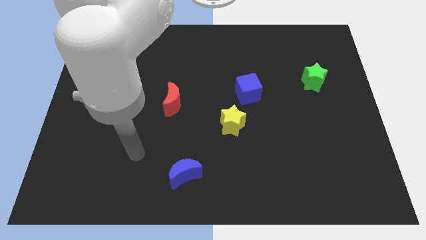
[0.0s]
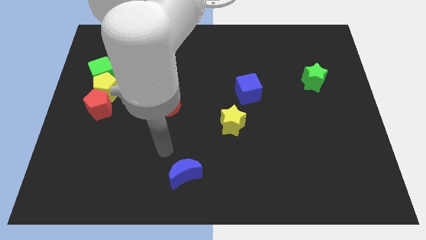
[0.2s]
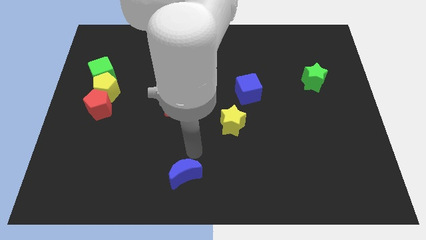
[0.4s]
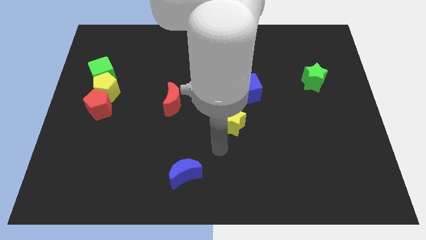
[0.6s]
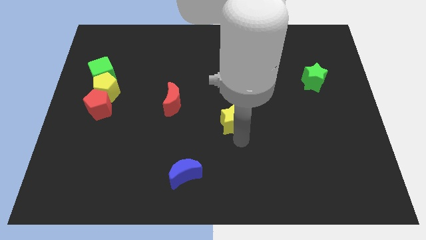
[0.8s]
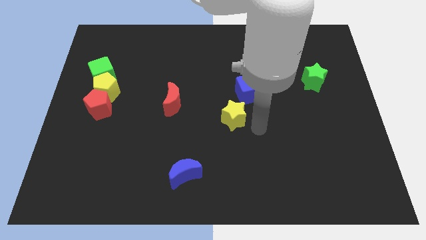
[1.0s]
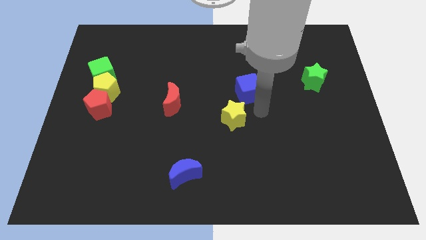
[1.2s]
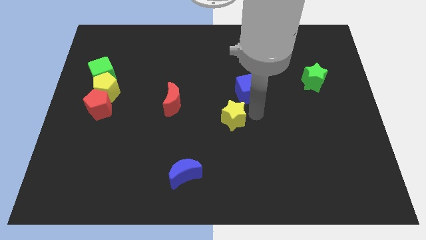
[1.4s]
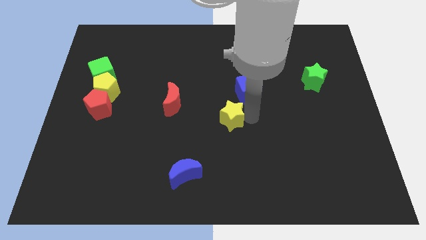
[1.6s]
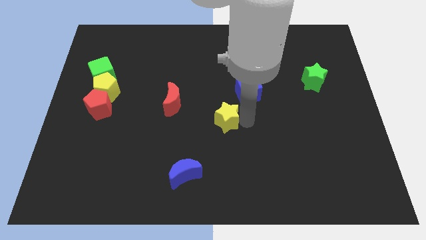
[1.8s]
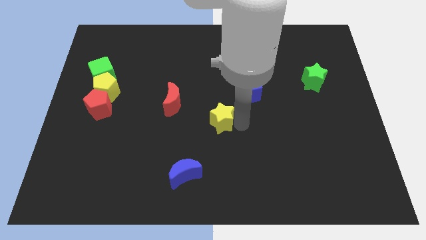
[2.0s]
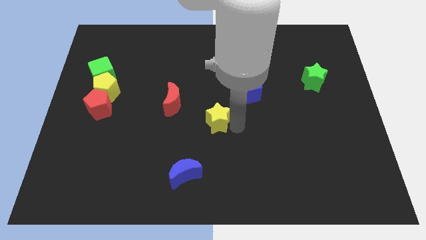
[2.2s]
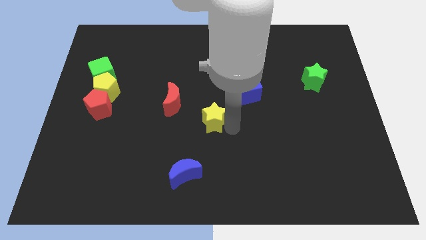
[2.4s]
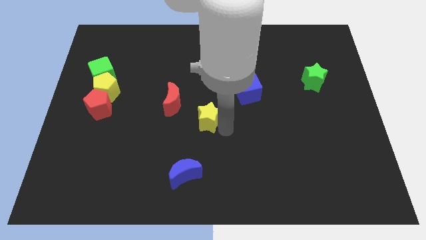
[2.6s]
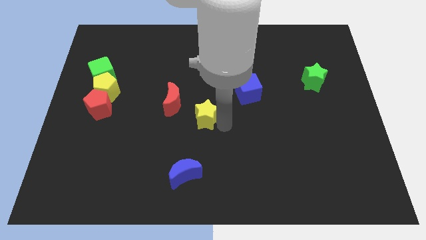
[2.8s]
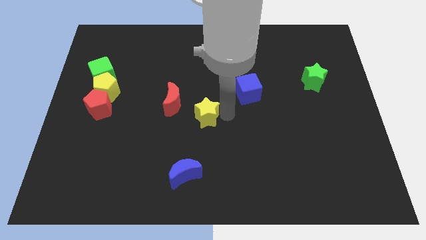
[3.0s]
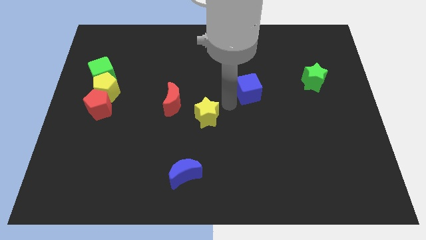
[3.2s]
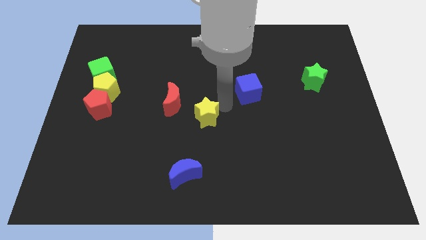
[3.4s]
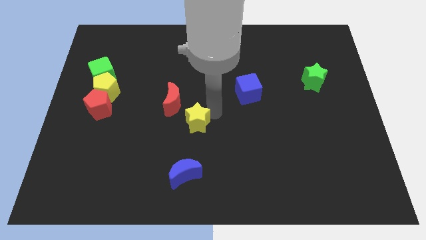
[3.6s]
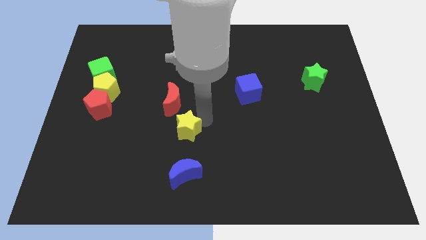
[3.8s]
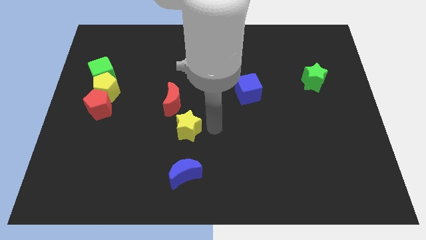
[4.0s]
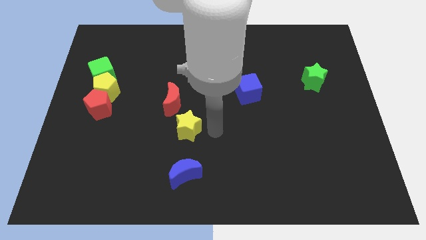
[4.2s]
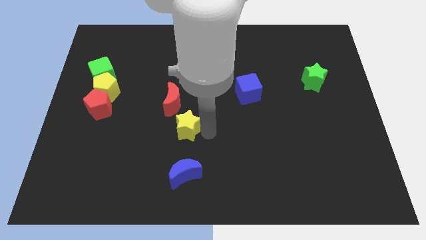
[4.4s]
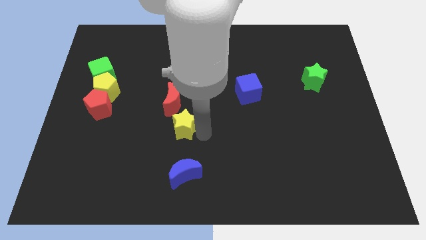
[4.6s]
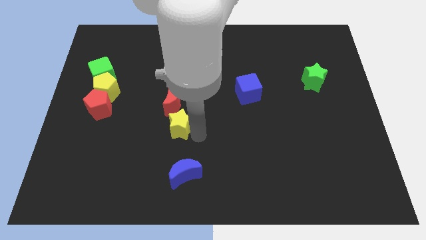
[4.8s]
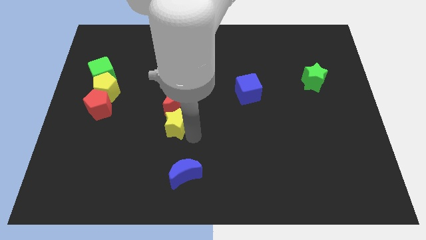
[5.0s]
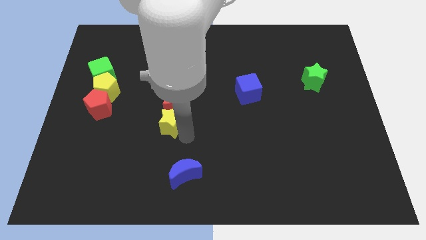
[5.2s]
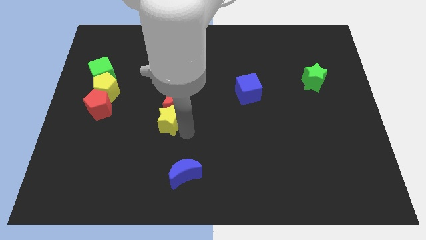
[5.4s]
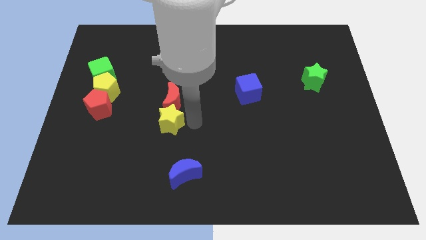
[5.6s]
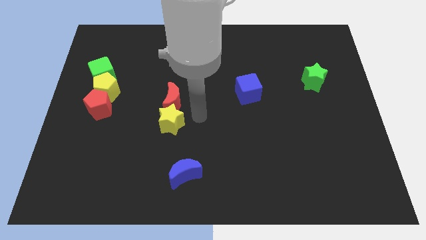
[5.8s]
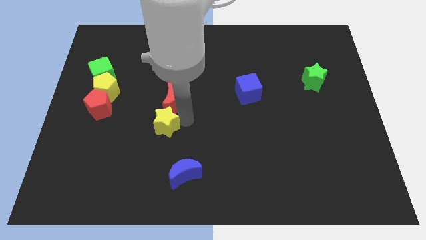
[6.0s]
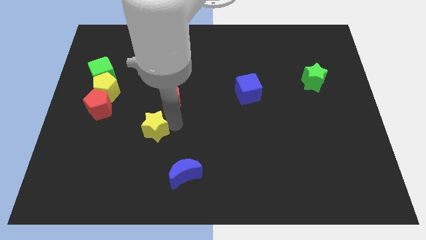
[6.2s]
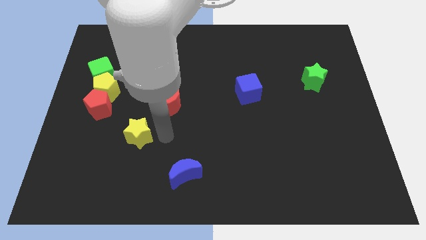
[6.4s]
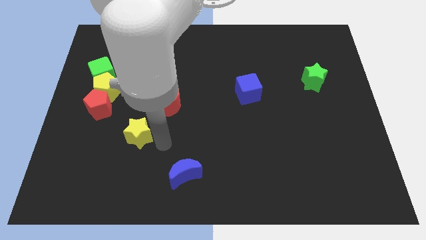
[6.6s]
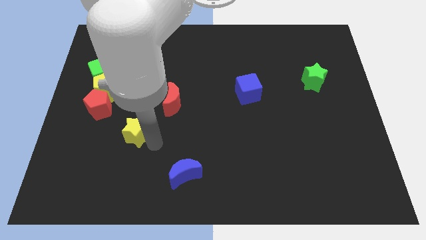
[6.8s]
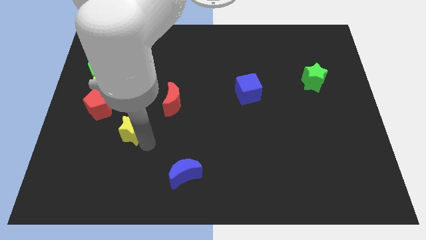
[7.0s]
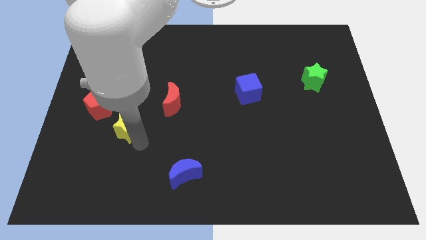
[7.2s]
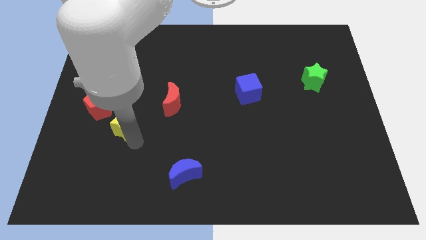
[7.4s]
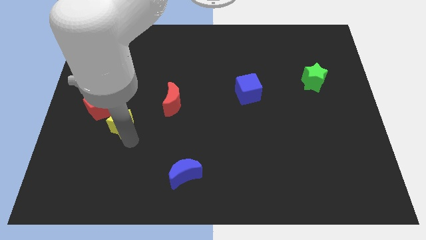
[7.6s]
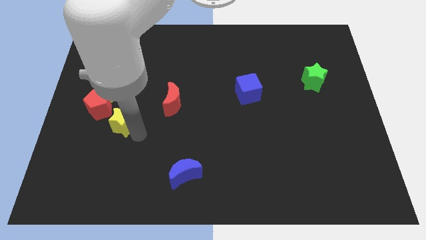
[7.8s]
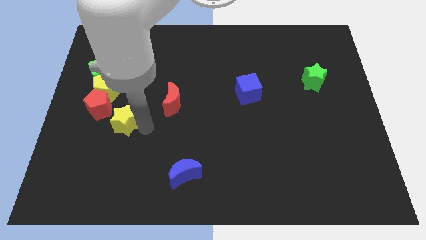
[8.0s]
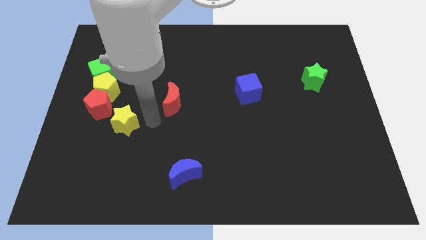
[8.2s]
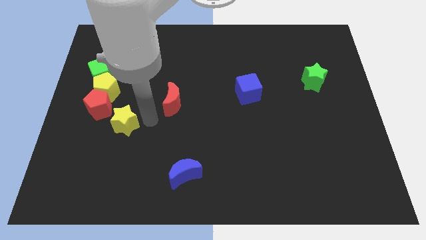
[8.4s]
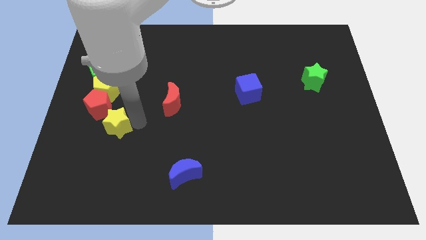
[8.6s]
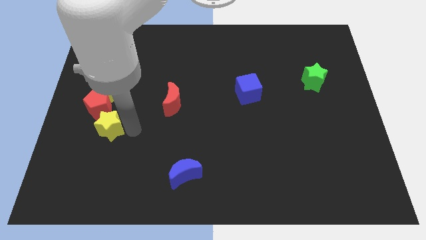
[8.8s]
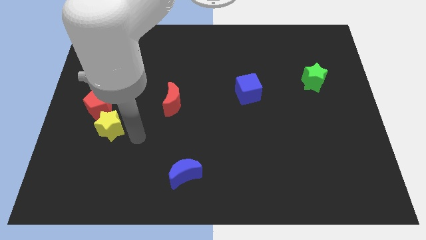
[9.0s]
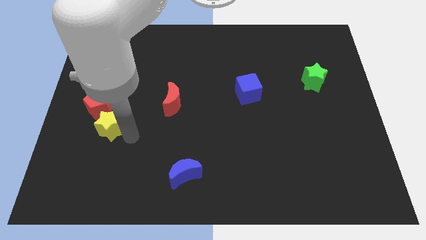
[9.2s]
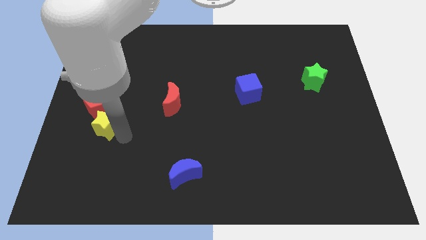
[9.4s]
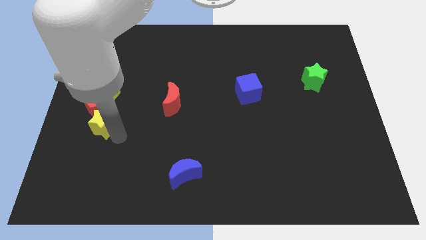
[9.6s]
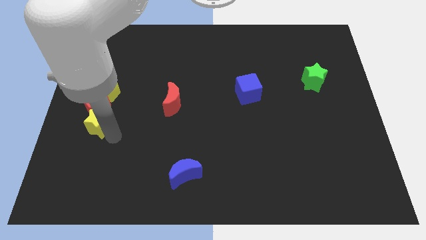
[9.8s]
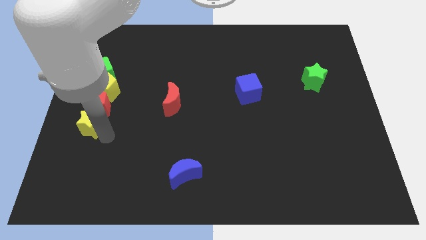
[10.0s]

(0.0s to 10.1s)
put the yellow star to the left side of the board

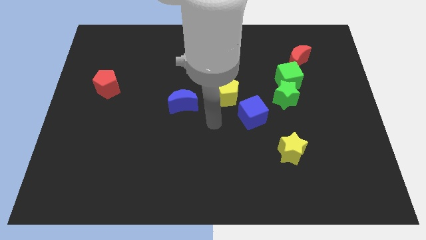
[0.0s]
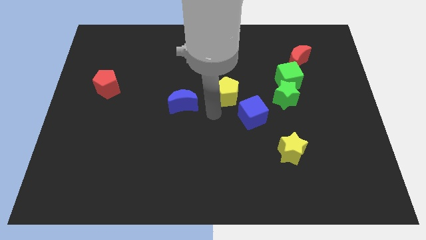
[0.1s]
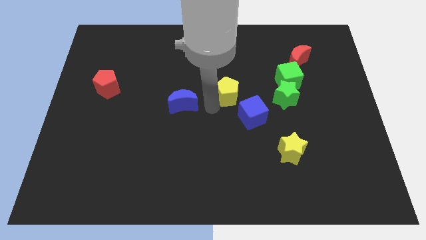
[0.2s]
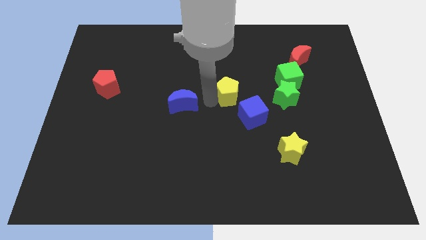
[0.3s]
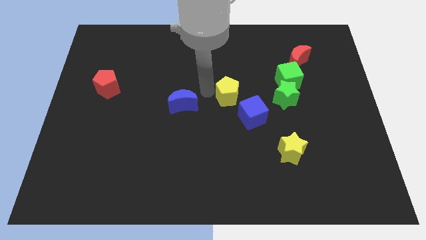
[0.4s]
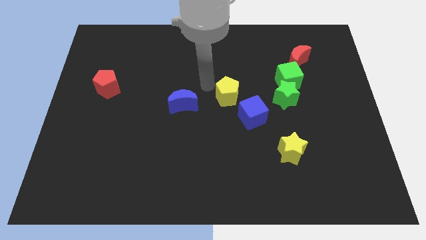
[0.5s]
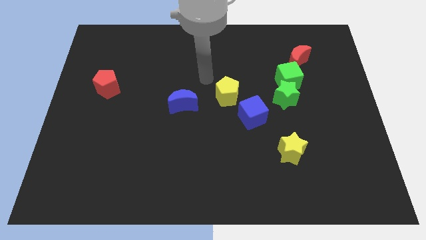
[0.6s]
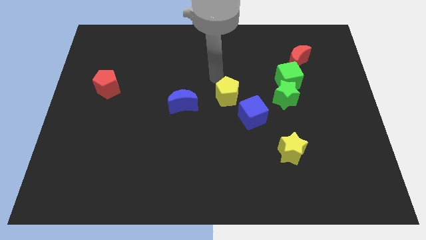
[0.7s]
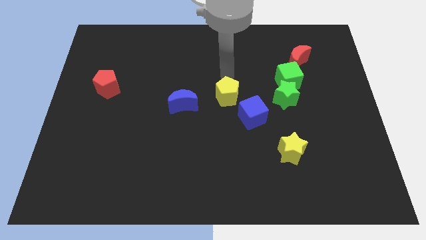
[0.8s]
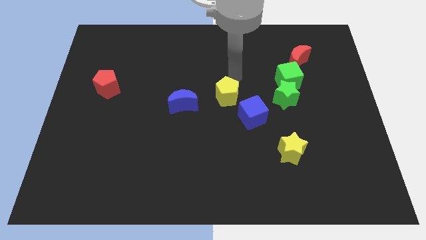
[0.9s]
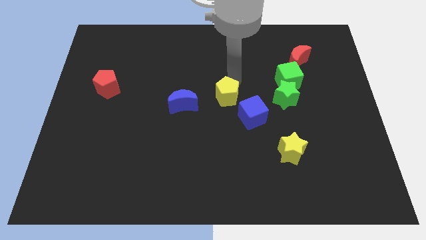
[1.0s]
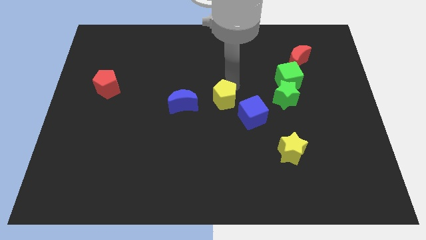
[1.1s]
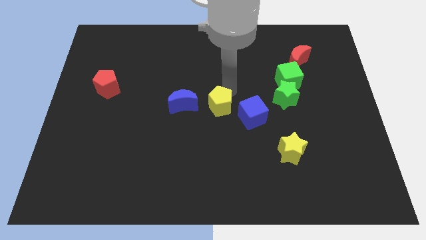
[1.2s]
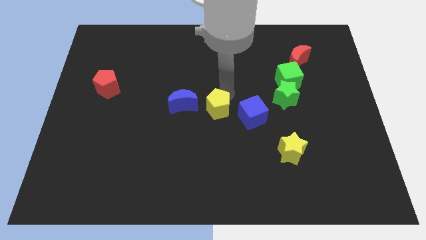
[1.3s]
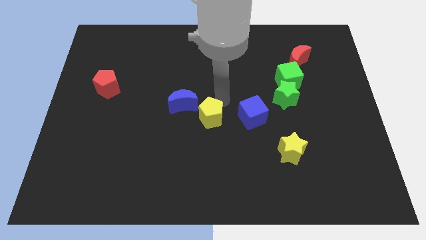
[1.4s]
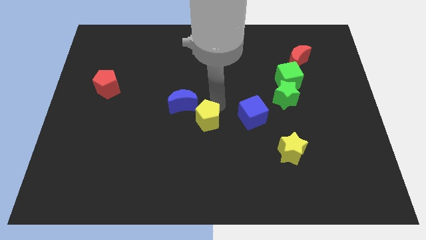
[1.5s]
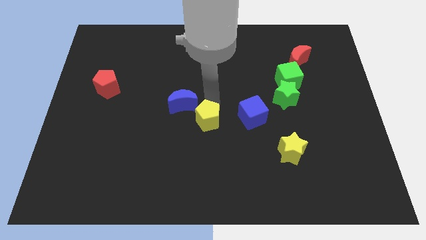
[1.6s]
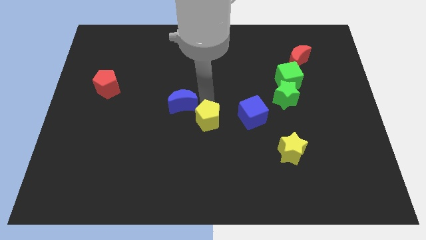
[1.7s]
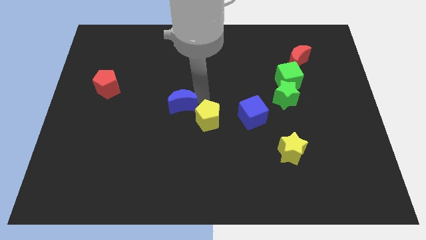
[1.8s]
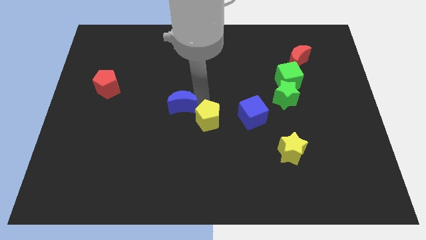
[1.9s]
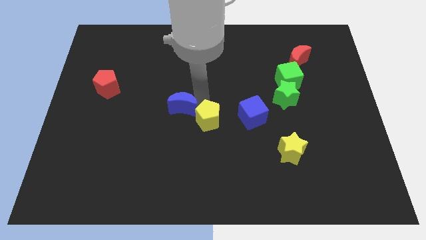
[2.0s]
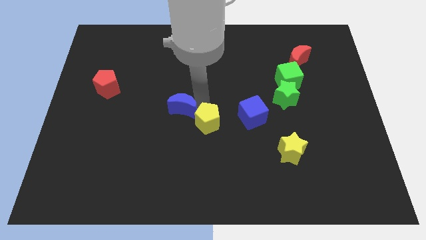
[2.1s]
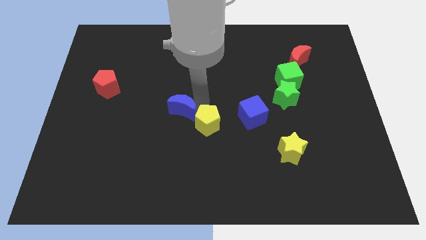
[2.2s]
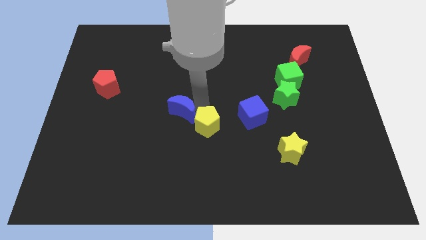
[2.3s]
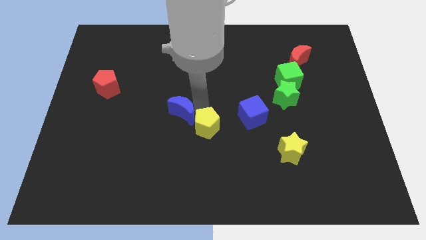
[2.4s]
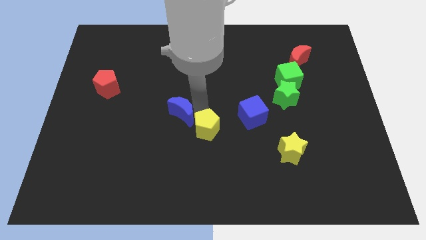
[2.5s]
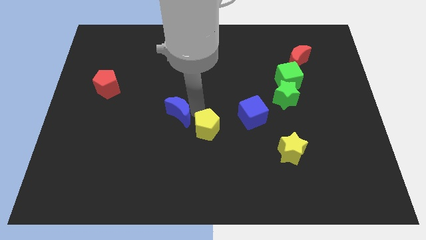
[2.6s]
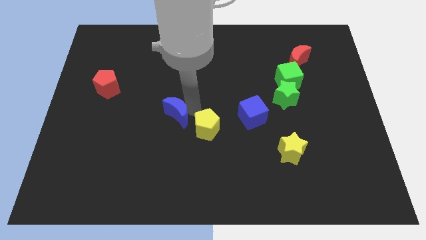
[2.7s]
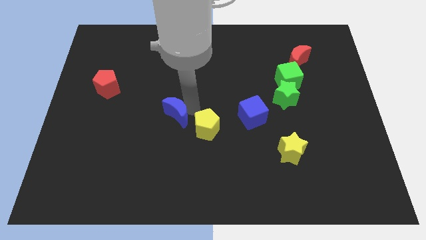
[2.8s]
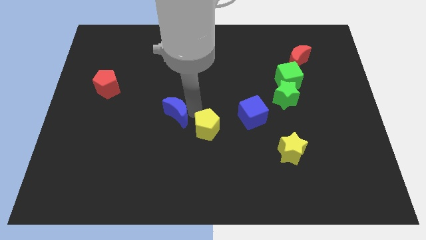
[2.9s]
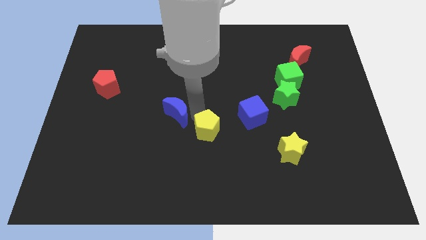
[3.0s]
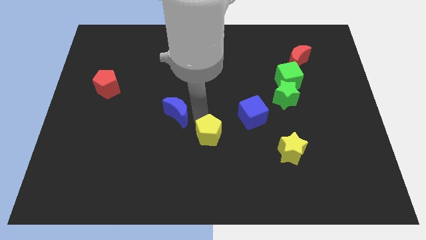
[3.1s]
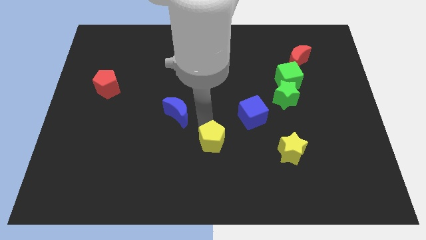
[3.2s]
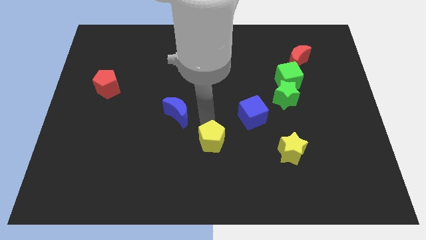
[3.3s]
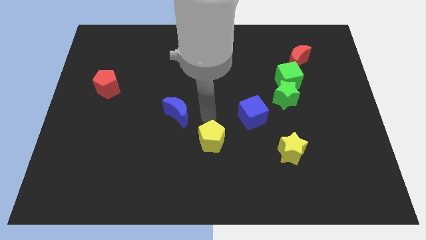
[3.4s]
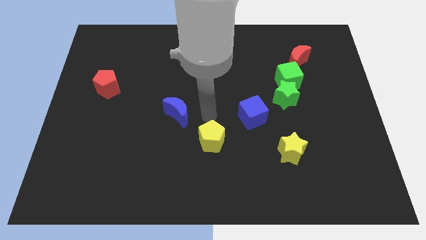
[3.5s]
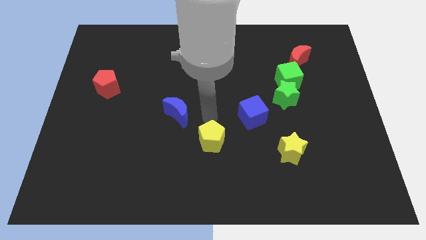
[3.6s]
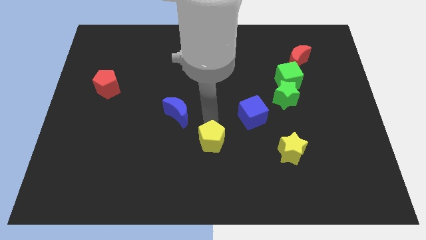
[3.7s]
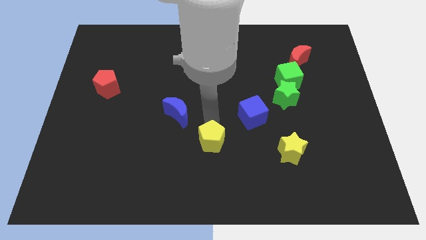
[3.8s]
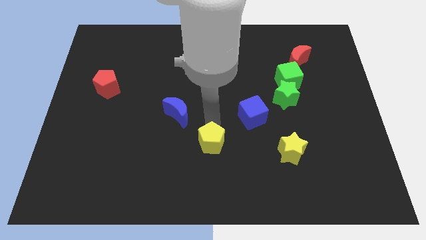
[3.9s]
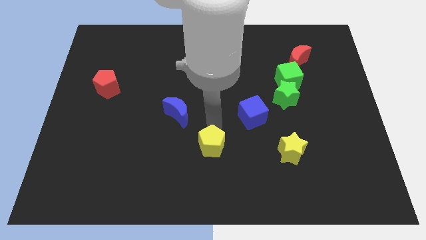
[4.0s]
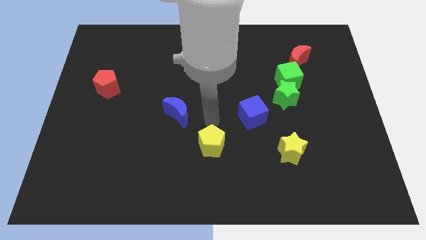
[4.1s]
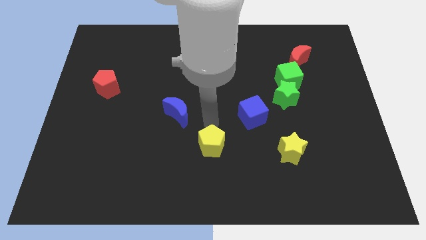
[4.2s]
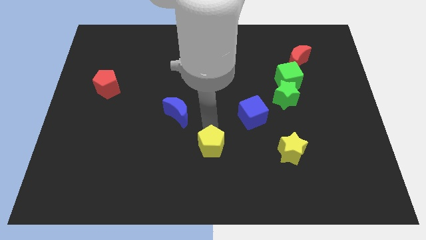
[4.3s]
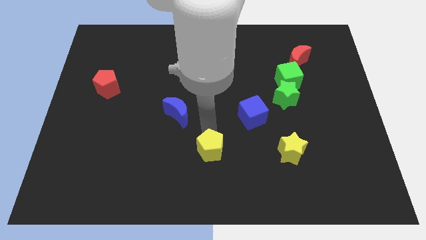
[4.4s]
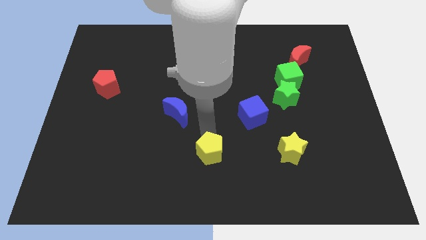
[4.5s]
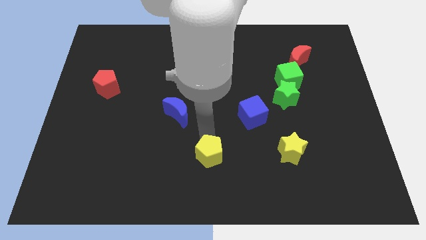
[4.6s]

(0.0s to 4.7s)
move the yellow pentagon to the bottom
